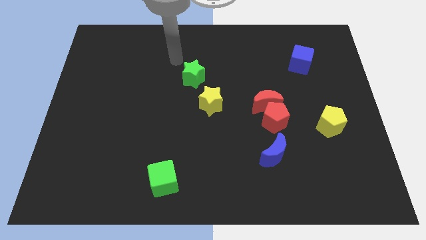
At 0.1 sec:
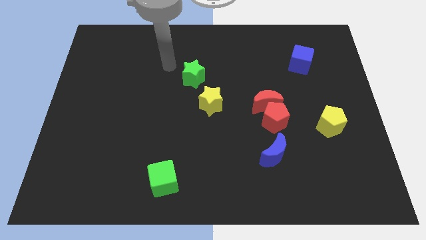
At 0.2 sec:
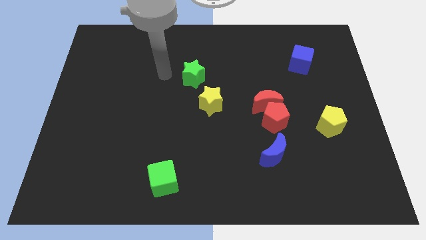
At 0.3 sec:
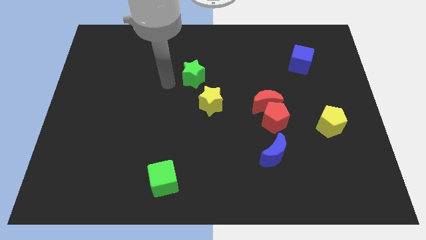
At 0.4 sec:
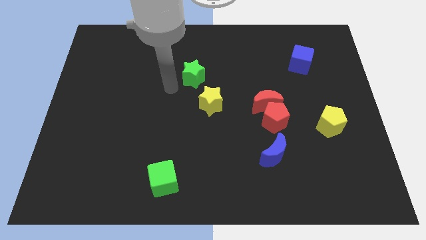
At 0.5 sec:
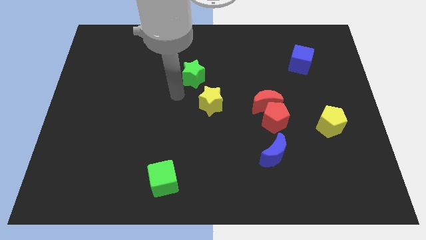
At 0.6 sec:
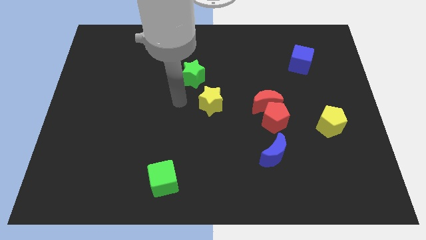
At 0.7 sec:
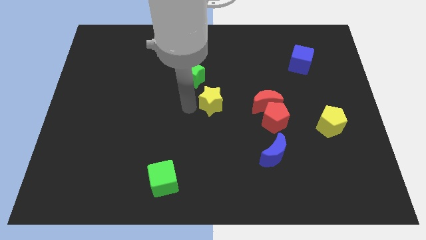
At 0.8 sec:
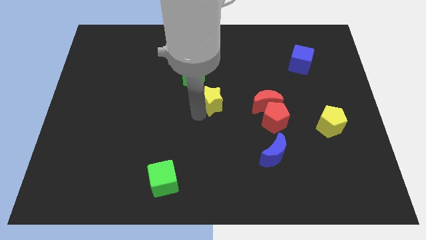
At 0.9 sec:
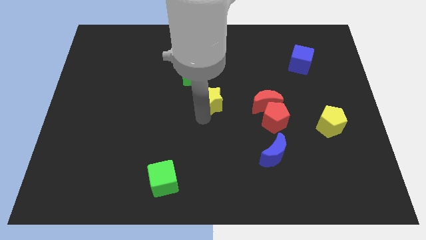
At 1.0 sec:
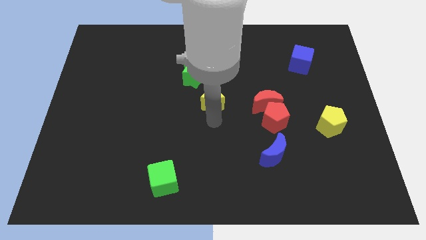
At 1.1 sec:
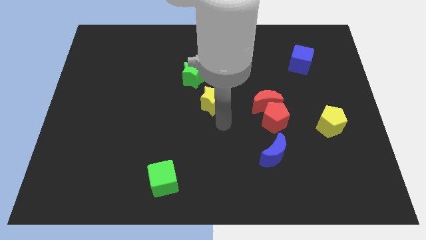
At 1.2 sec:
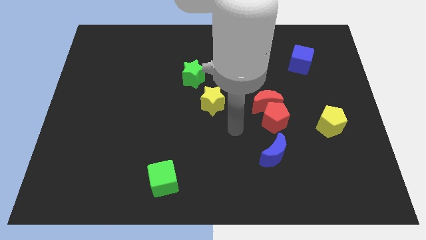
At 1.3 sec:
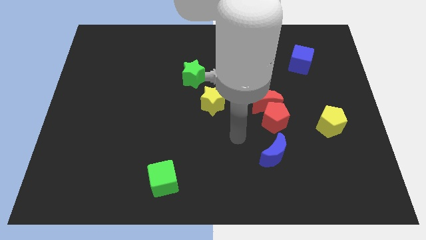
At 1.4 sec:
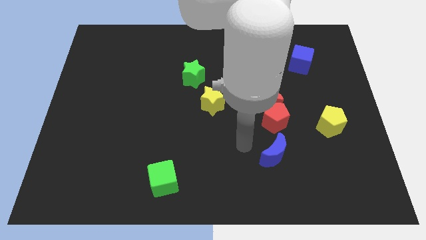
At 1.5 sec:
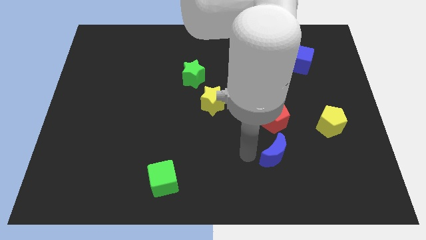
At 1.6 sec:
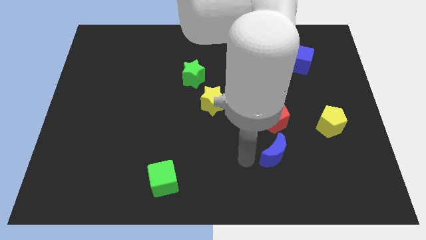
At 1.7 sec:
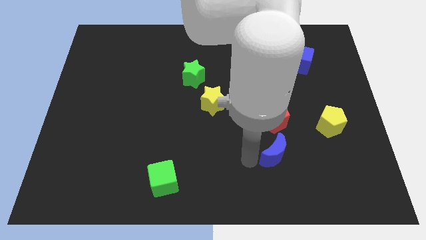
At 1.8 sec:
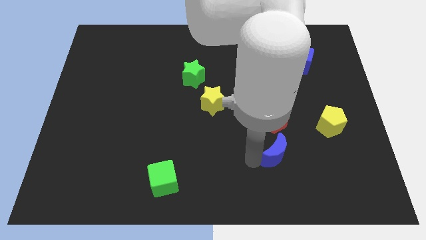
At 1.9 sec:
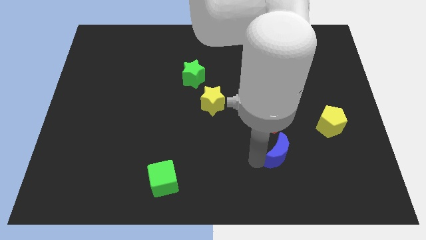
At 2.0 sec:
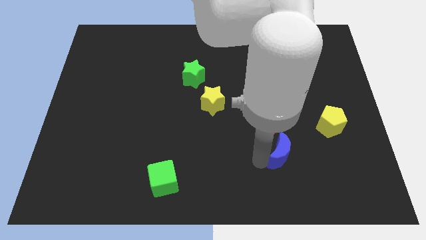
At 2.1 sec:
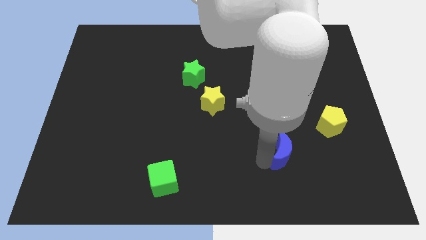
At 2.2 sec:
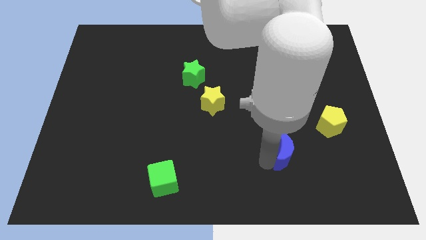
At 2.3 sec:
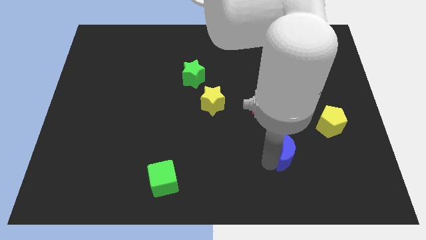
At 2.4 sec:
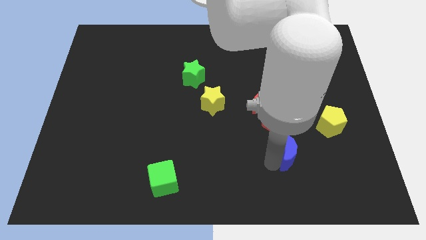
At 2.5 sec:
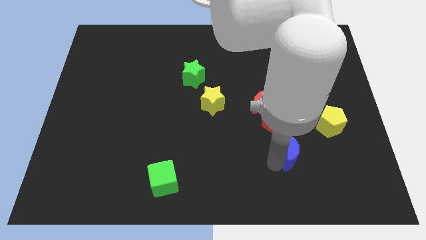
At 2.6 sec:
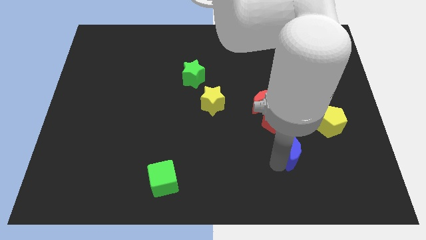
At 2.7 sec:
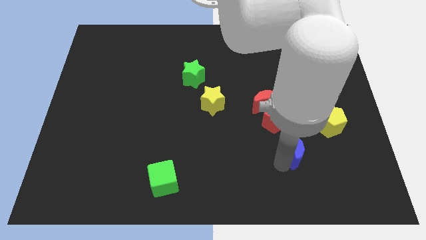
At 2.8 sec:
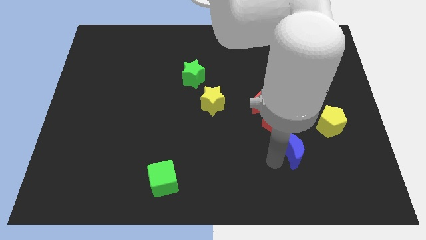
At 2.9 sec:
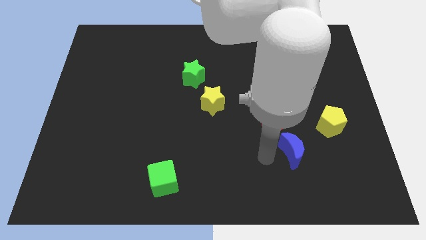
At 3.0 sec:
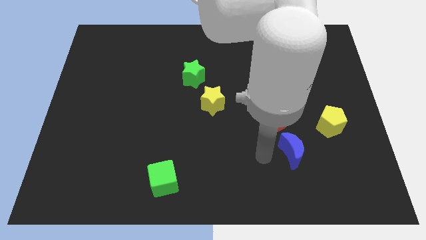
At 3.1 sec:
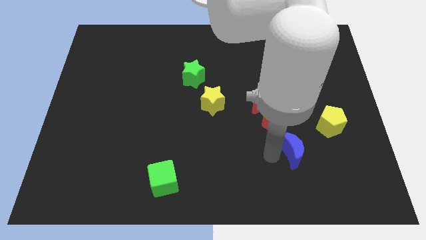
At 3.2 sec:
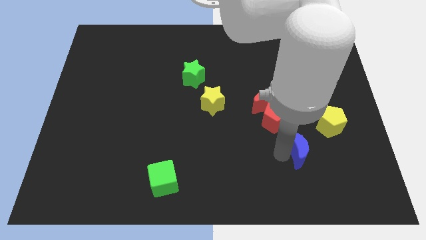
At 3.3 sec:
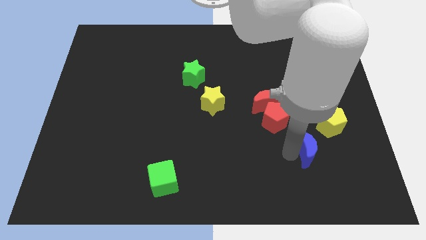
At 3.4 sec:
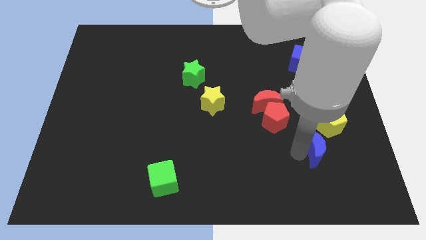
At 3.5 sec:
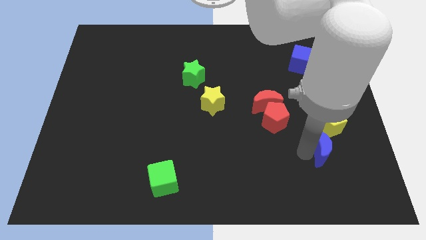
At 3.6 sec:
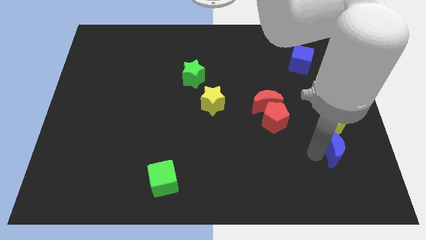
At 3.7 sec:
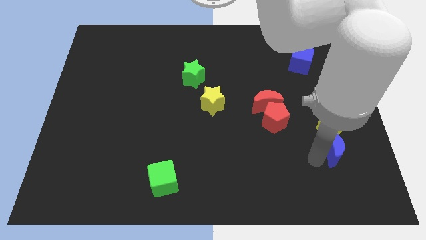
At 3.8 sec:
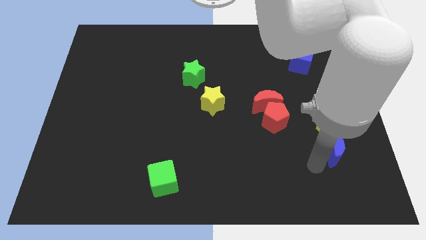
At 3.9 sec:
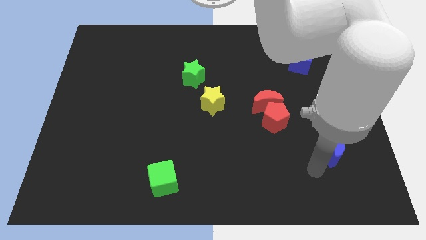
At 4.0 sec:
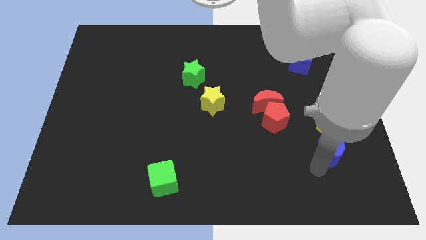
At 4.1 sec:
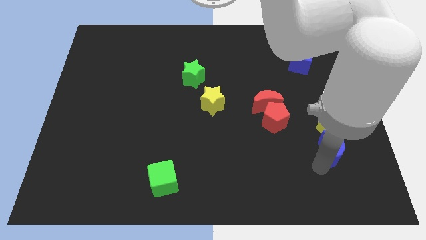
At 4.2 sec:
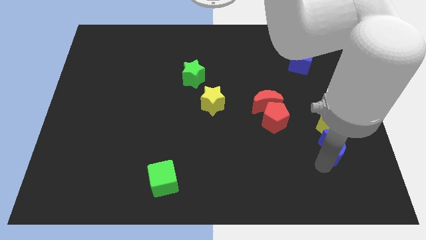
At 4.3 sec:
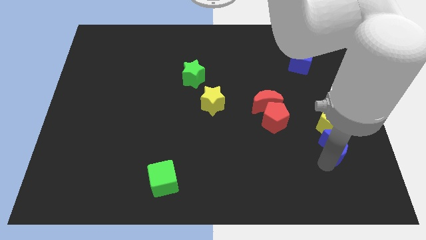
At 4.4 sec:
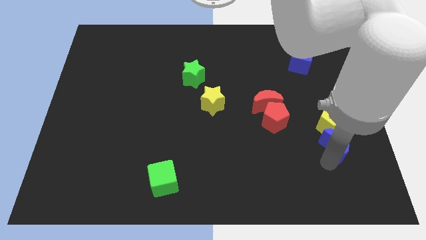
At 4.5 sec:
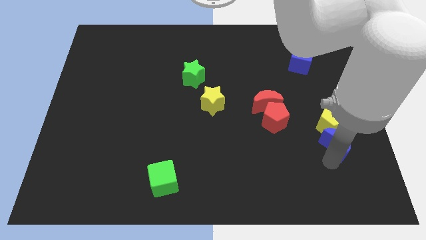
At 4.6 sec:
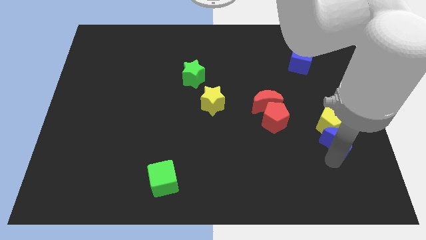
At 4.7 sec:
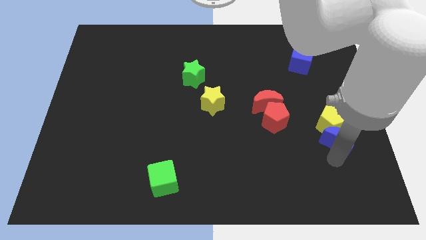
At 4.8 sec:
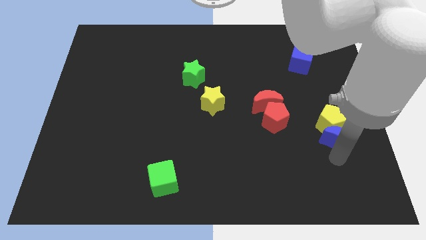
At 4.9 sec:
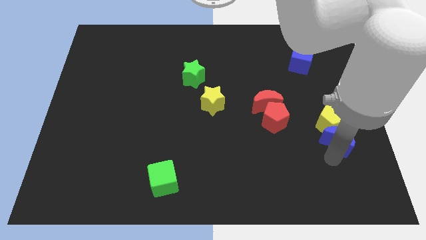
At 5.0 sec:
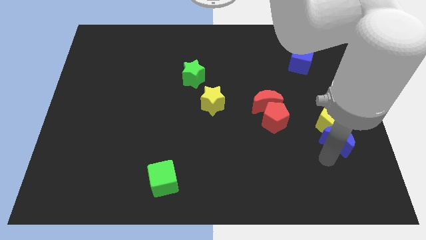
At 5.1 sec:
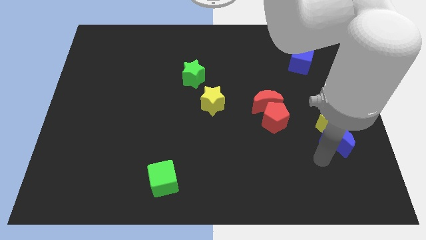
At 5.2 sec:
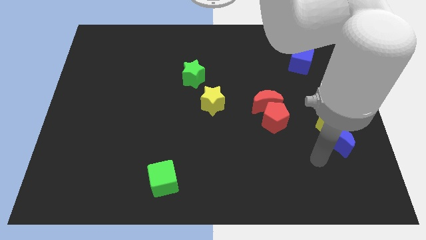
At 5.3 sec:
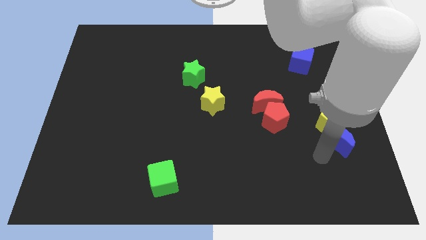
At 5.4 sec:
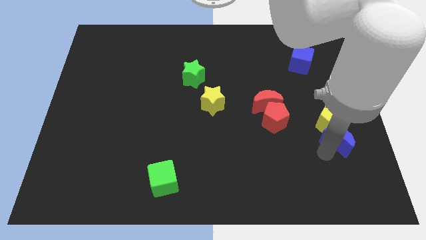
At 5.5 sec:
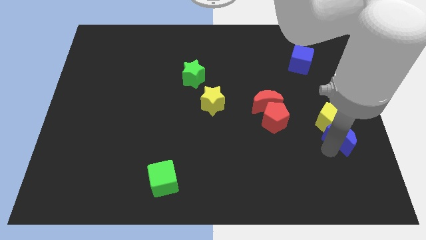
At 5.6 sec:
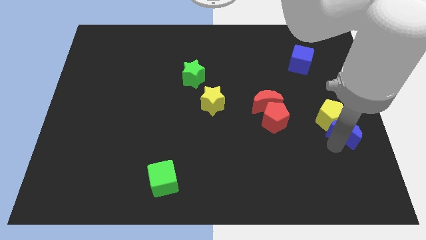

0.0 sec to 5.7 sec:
put the blue moon to the right side

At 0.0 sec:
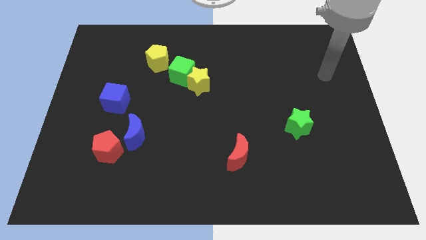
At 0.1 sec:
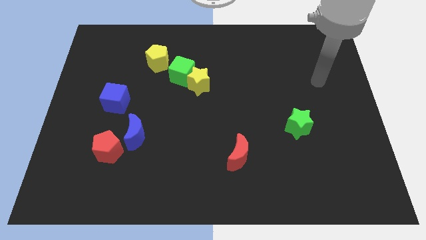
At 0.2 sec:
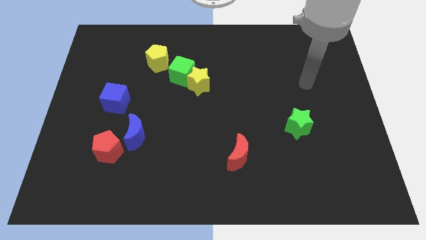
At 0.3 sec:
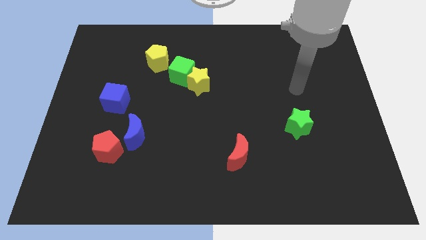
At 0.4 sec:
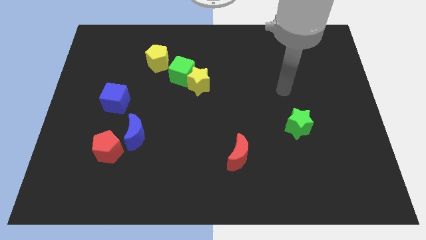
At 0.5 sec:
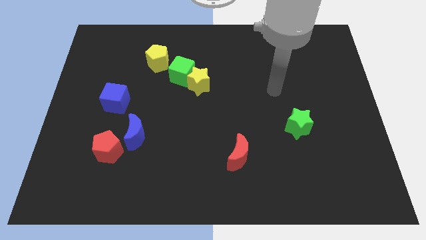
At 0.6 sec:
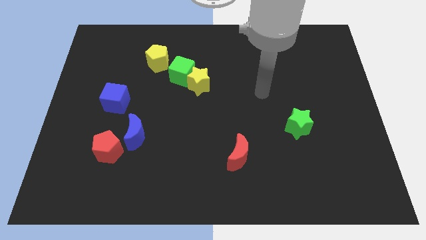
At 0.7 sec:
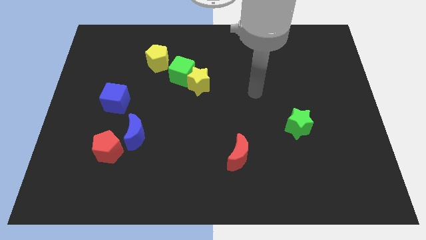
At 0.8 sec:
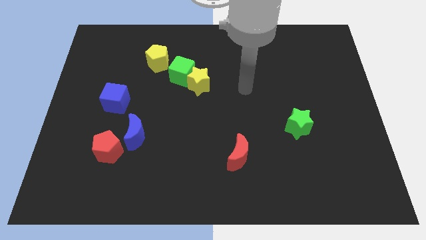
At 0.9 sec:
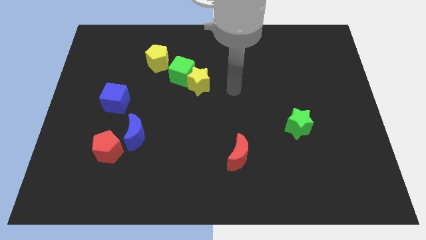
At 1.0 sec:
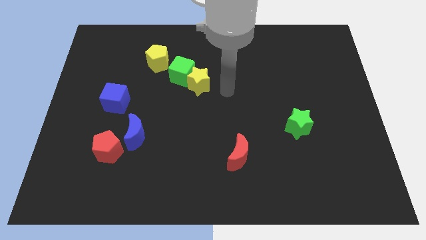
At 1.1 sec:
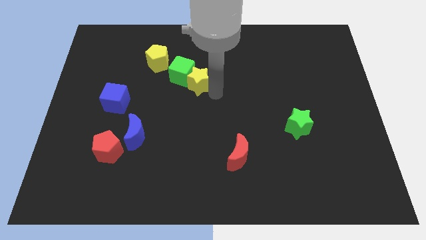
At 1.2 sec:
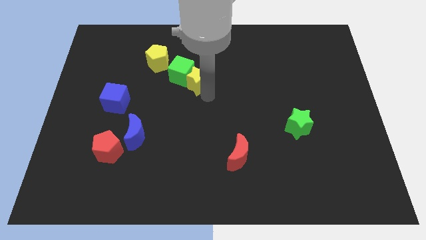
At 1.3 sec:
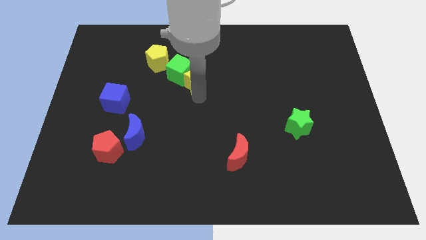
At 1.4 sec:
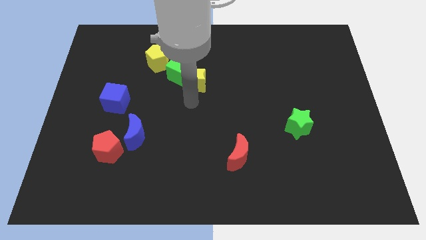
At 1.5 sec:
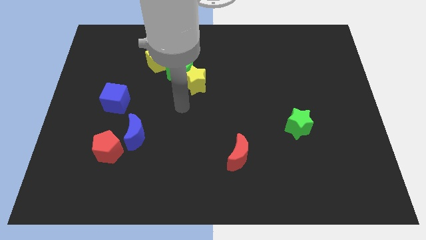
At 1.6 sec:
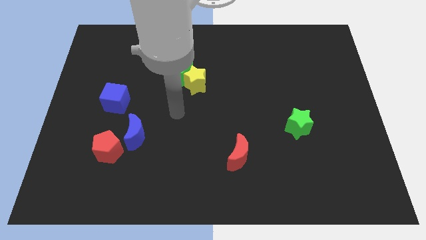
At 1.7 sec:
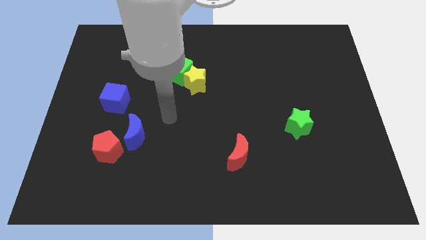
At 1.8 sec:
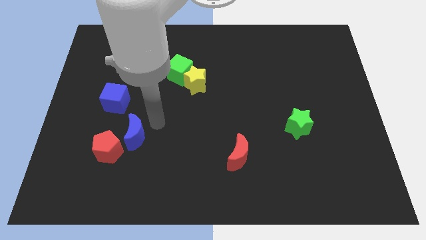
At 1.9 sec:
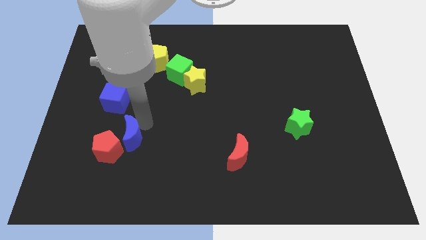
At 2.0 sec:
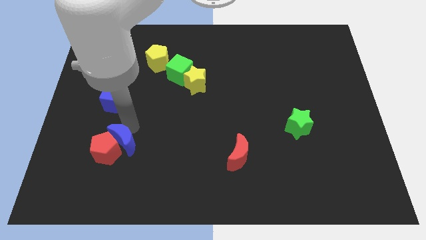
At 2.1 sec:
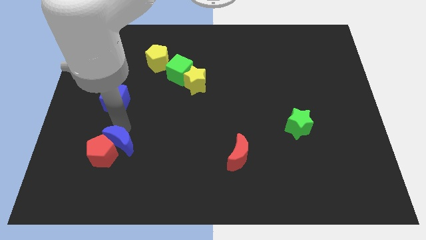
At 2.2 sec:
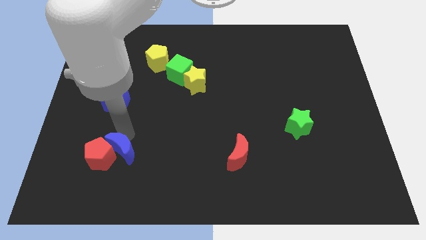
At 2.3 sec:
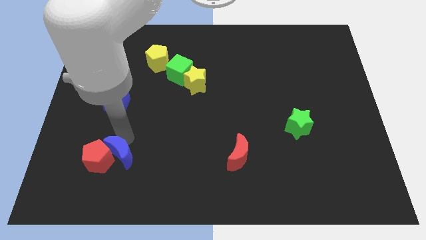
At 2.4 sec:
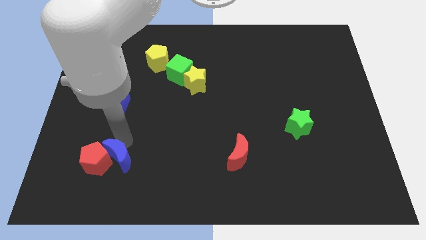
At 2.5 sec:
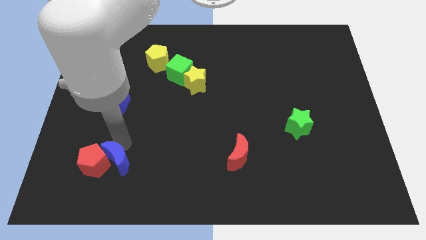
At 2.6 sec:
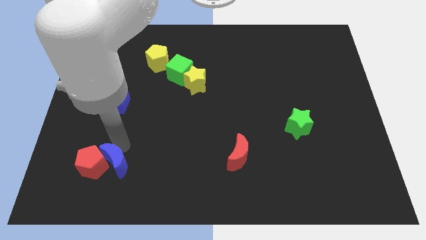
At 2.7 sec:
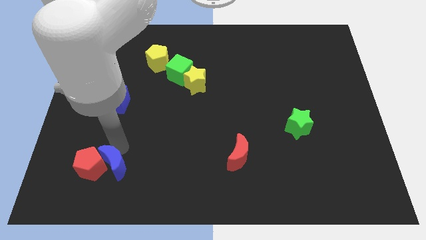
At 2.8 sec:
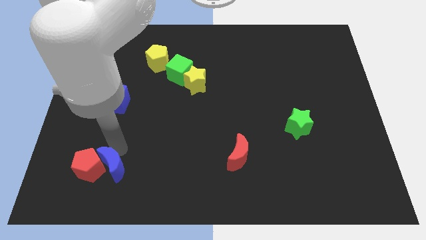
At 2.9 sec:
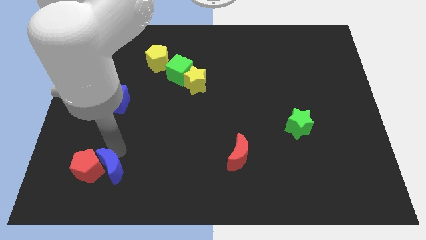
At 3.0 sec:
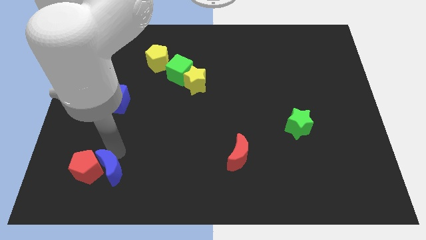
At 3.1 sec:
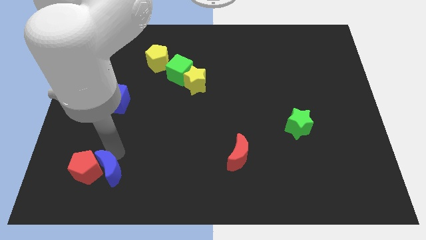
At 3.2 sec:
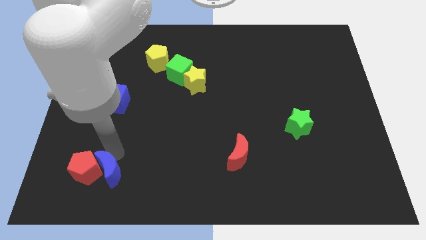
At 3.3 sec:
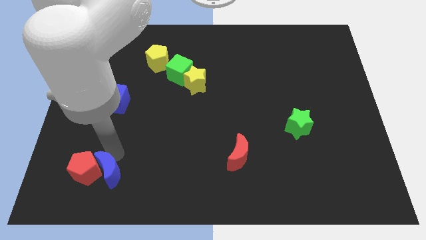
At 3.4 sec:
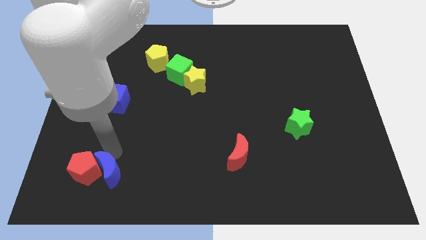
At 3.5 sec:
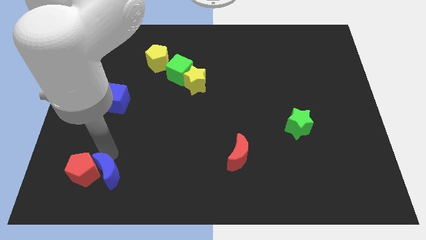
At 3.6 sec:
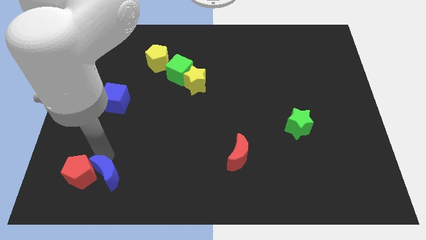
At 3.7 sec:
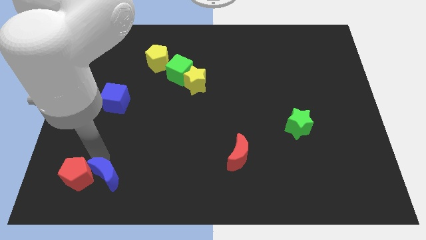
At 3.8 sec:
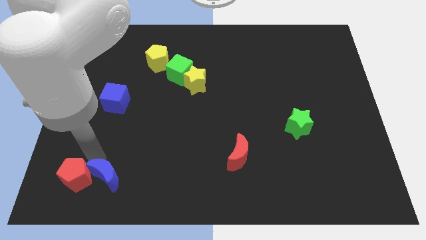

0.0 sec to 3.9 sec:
put the red pentagon to the bottom left of the board
